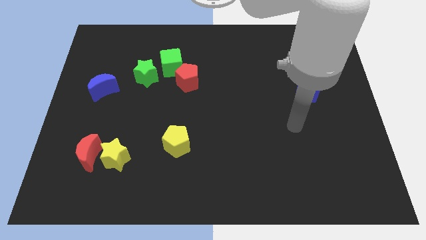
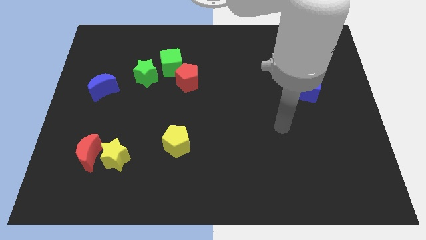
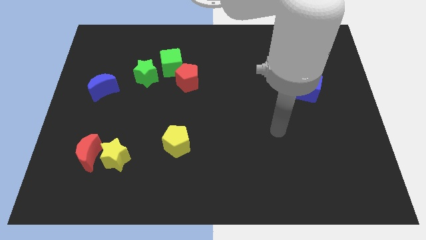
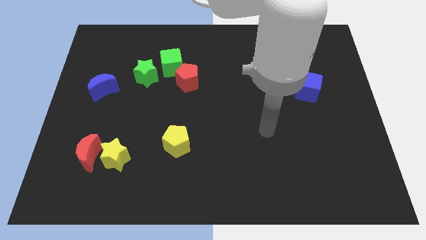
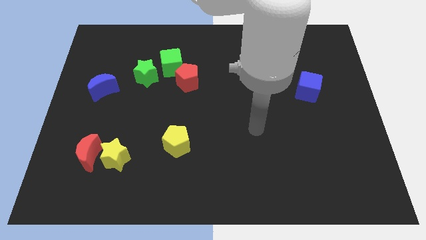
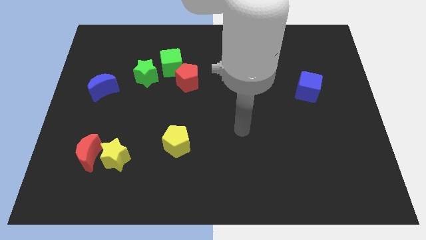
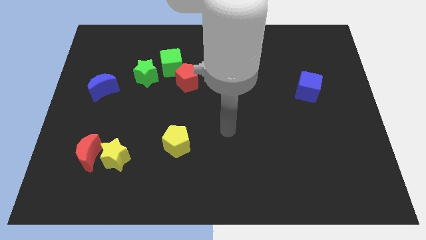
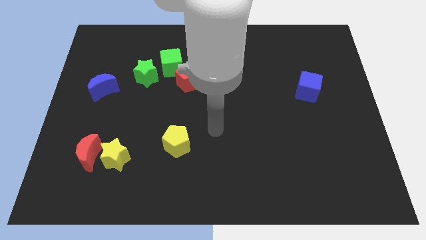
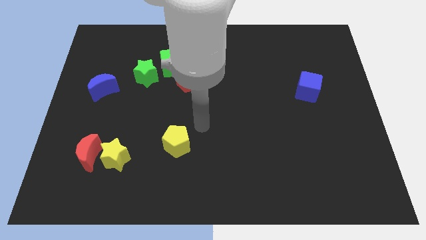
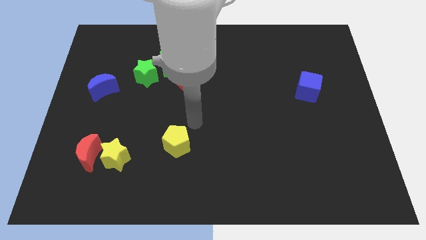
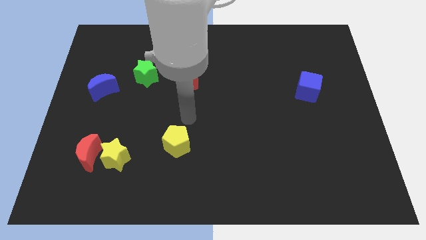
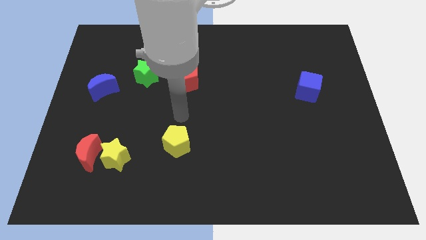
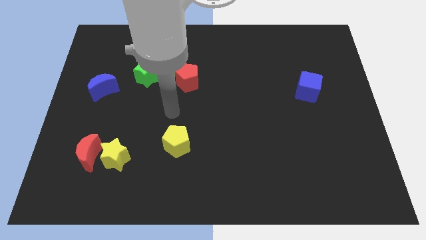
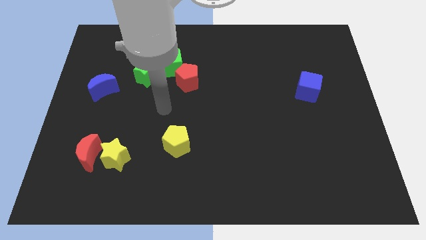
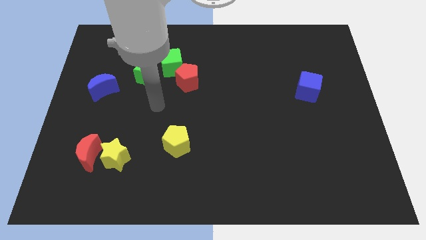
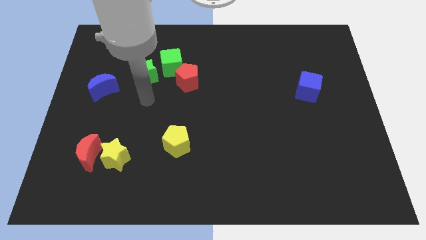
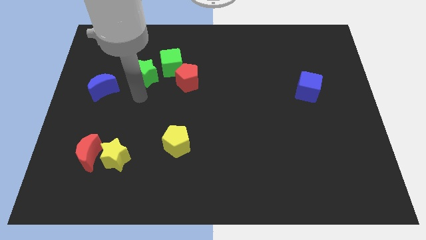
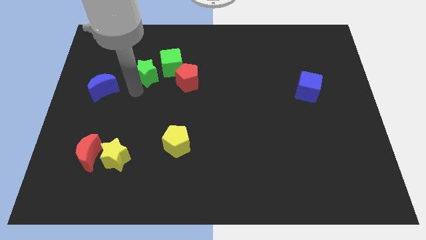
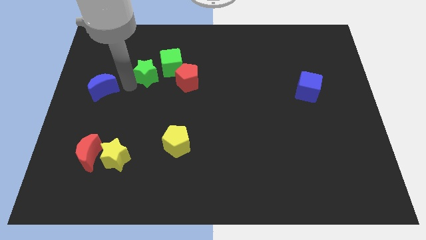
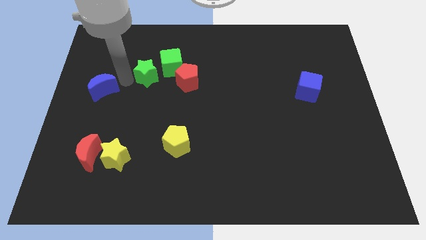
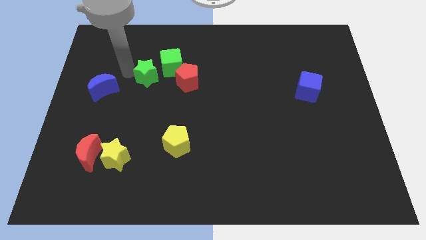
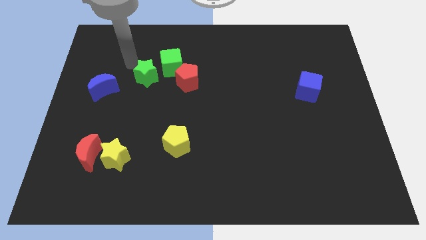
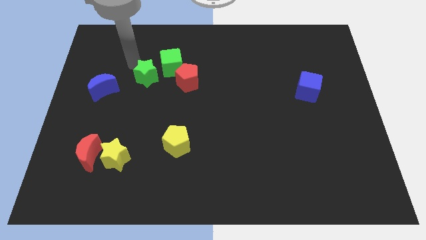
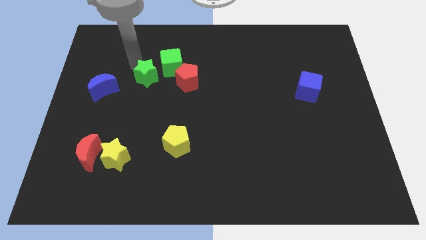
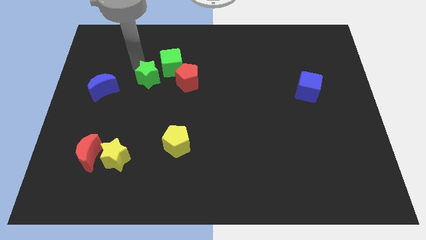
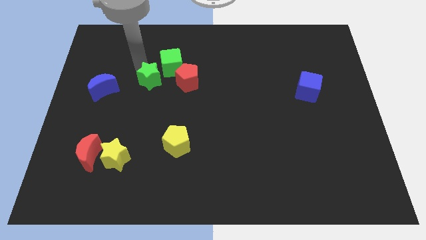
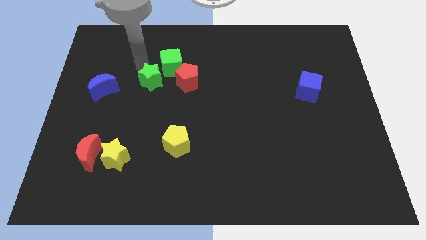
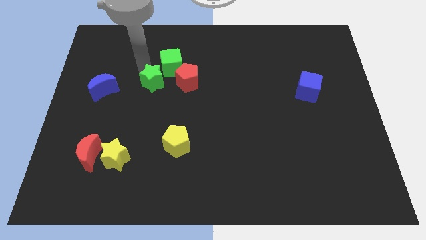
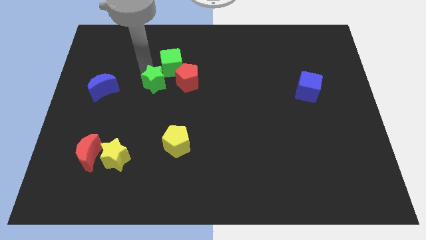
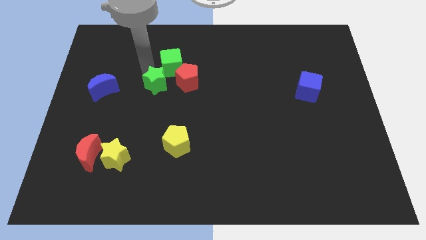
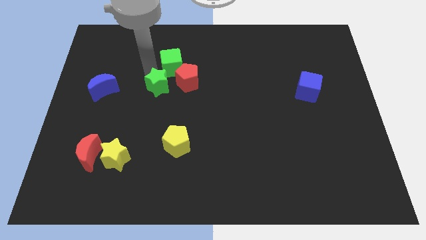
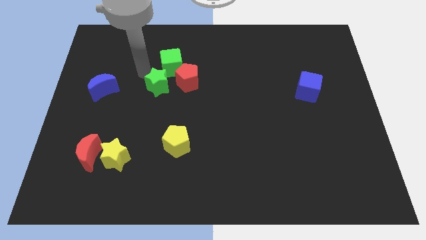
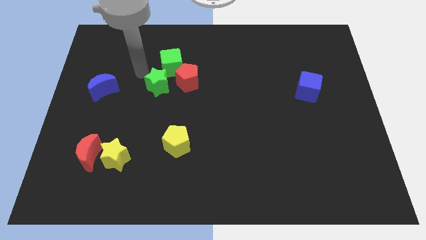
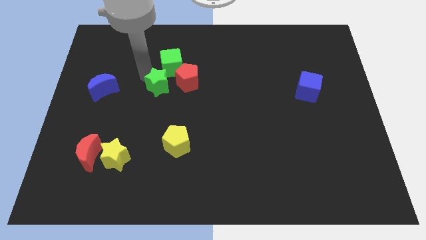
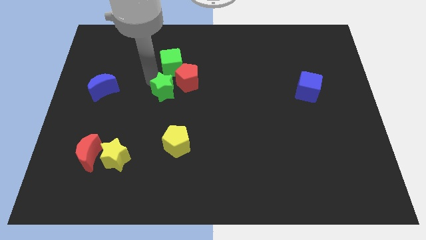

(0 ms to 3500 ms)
slightly push the green star diagonally down and to the right

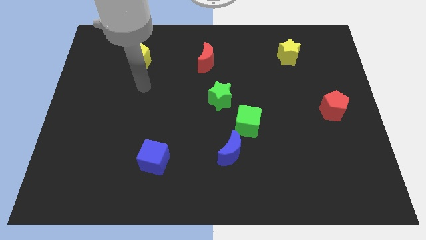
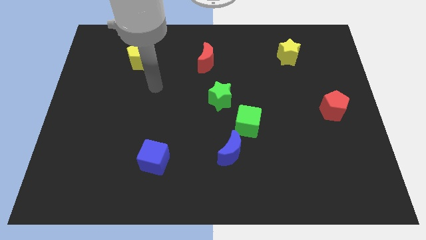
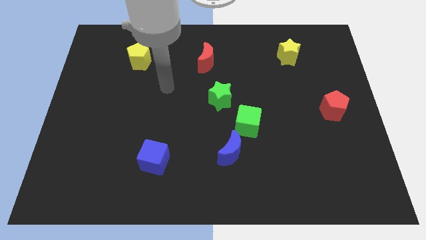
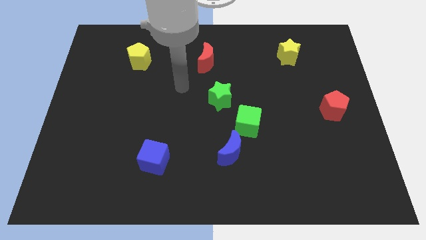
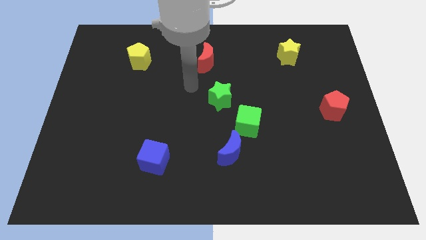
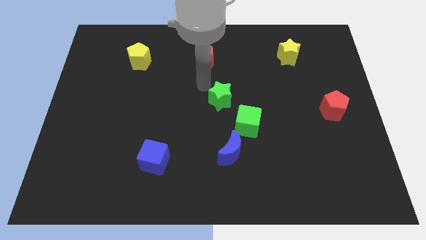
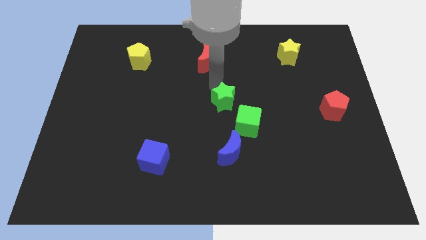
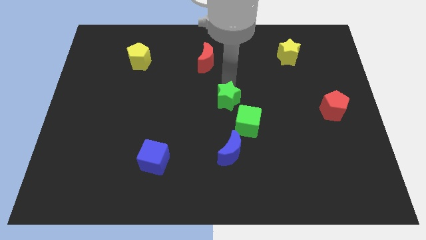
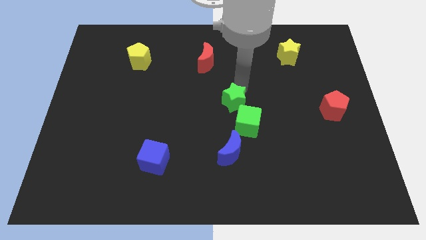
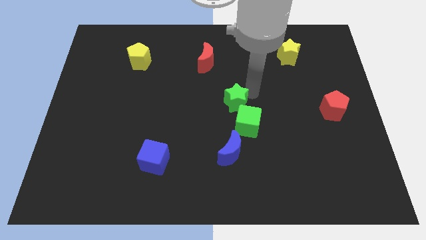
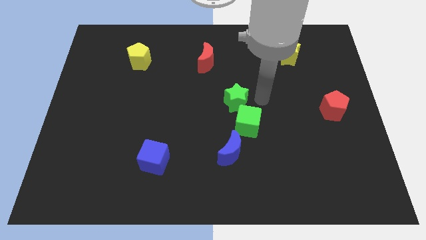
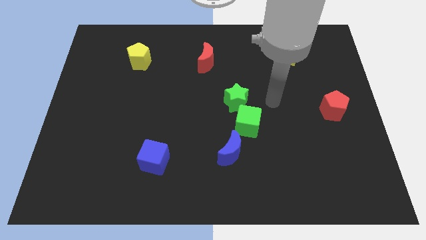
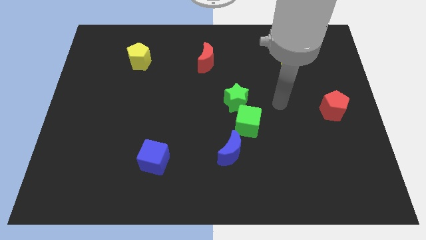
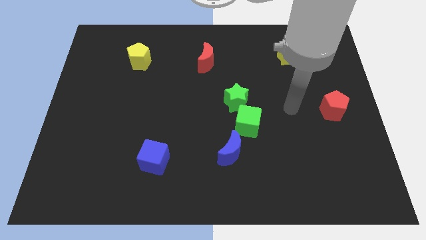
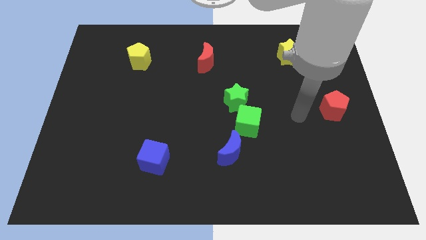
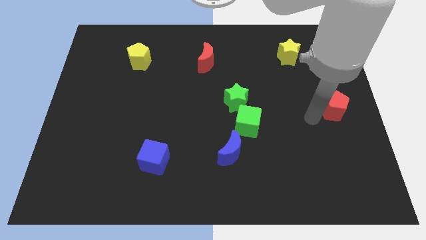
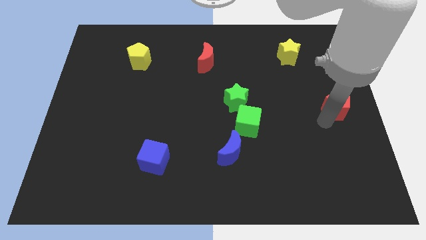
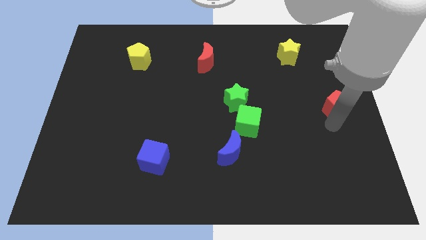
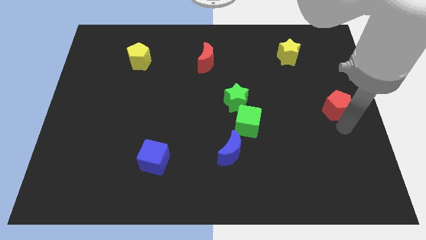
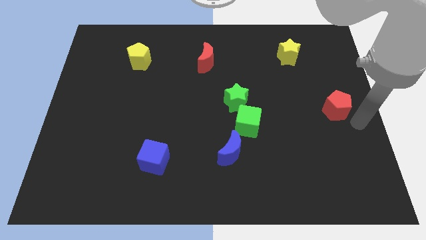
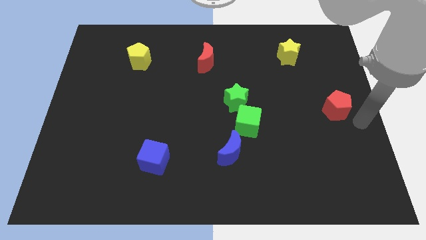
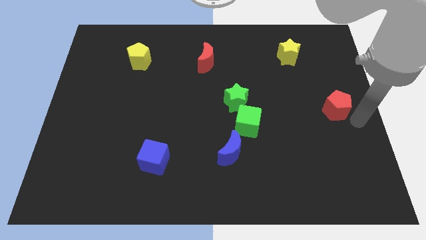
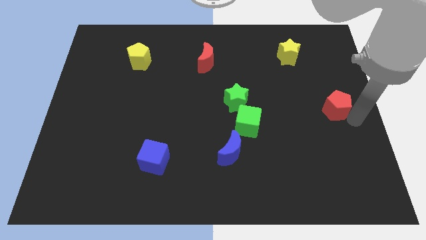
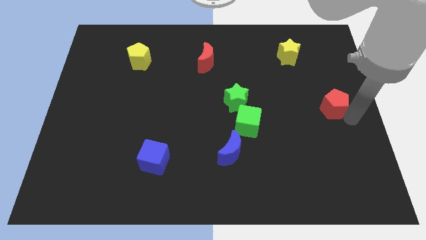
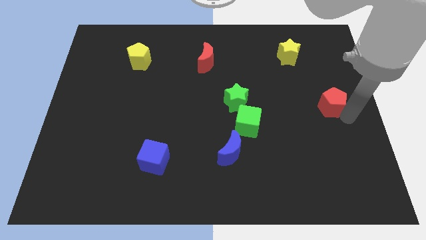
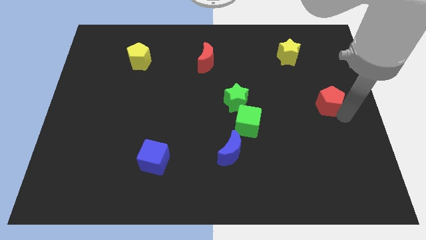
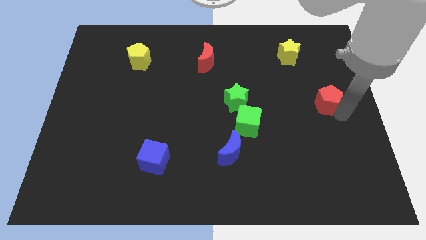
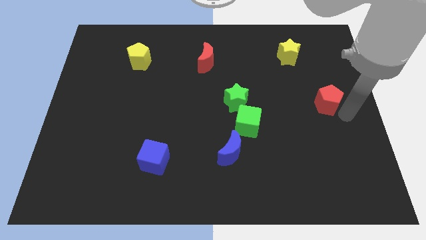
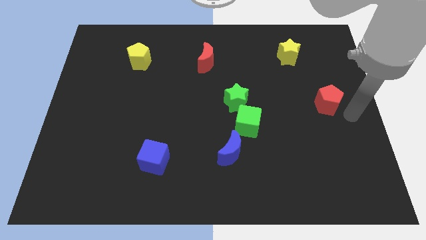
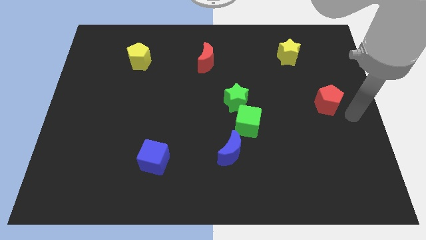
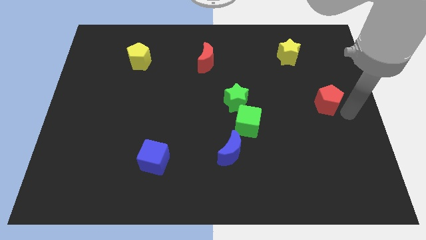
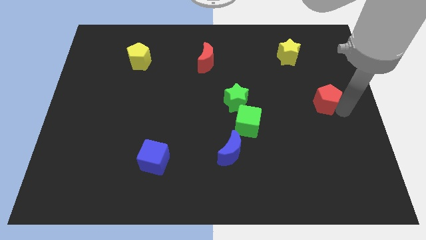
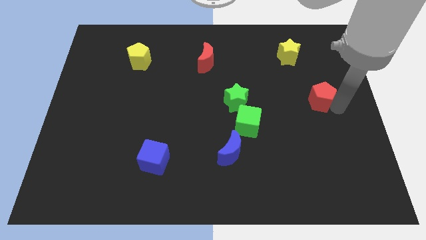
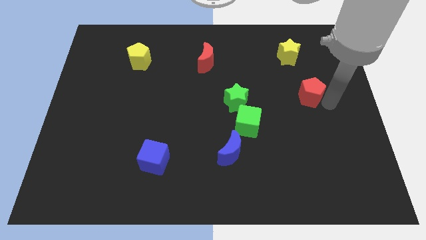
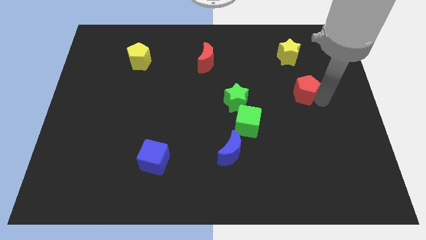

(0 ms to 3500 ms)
slightly move the red pentagon up and to the left

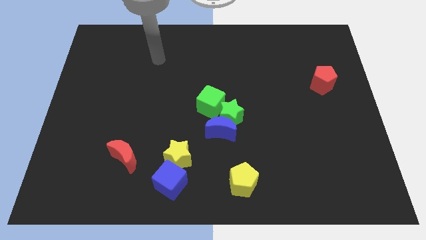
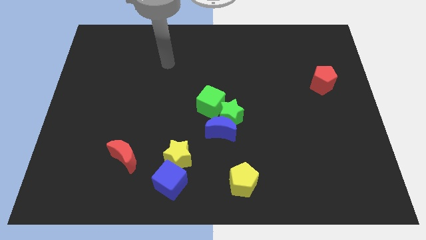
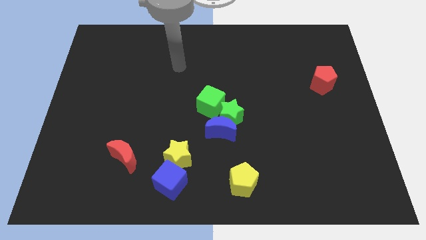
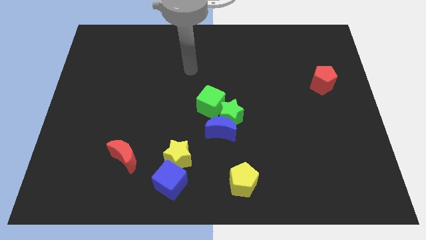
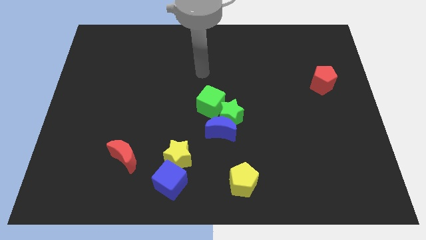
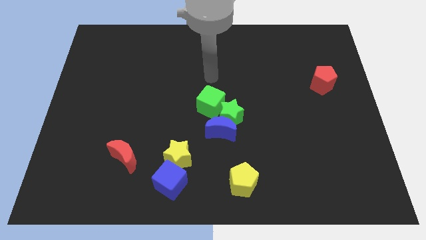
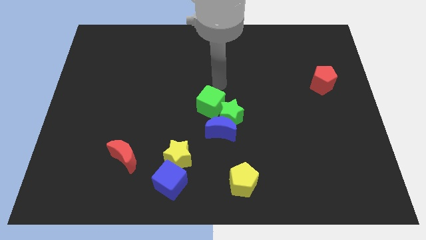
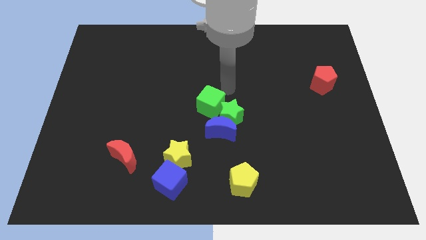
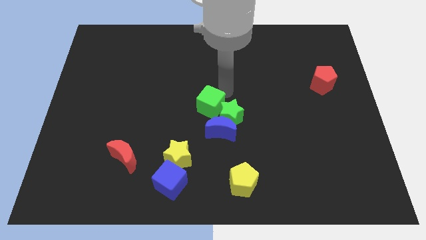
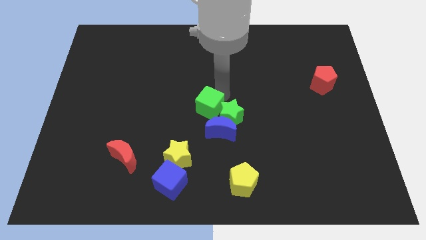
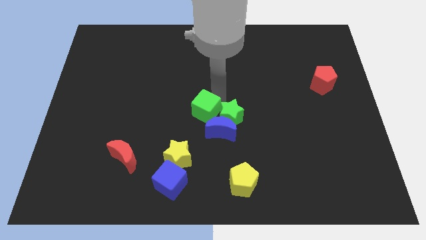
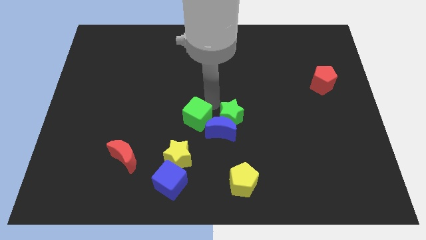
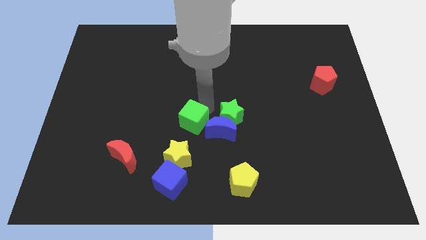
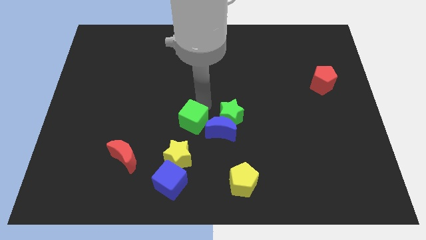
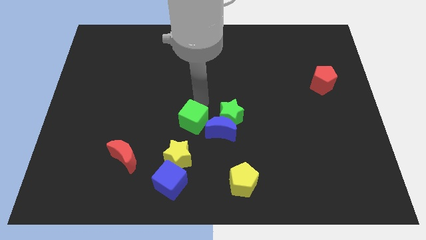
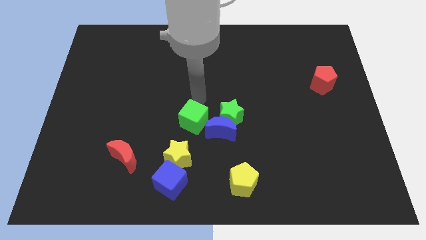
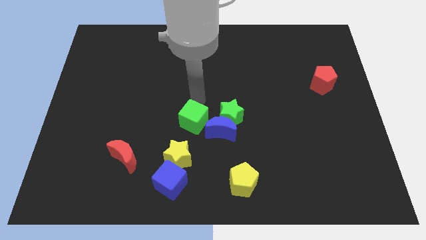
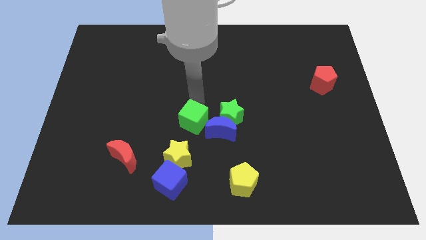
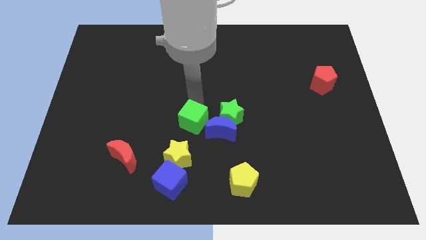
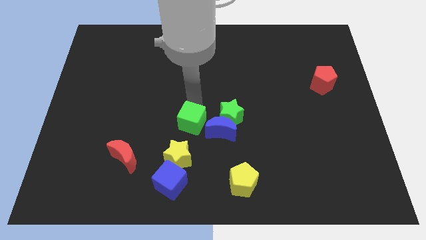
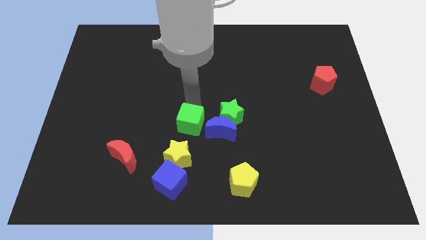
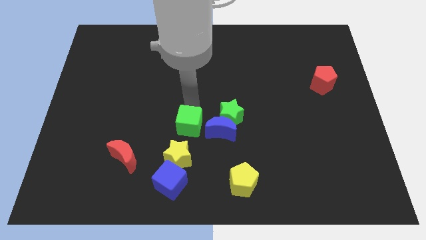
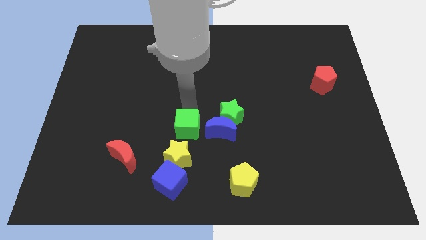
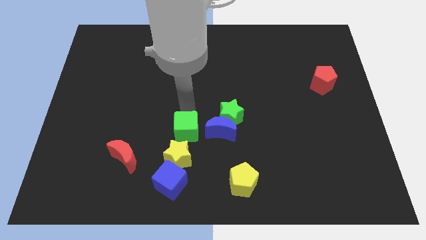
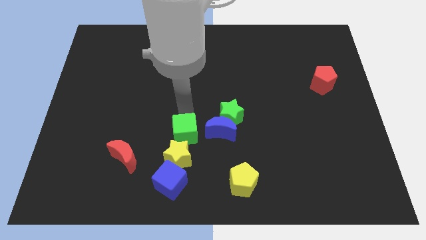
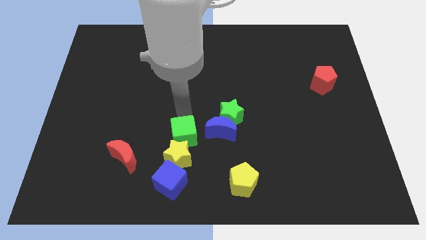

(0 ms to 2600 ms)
slightly slide the green cube down
